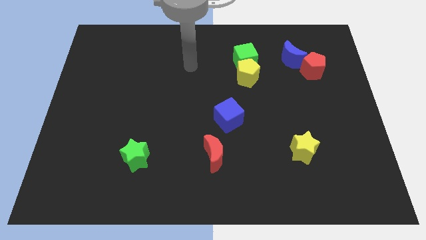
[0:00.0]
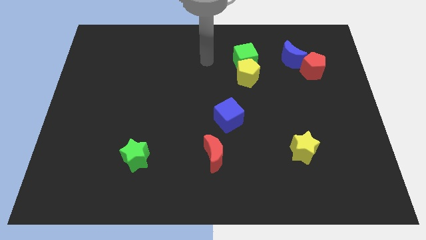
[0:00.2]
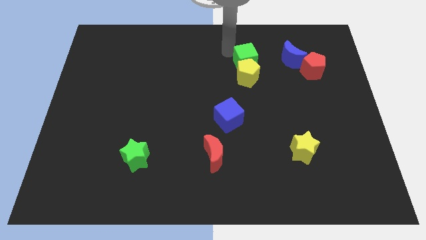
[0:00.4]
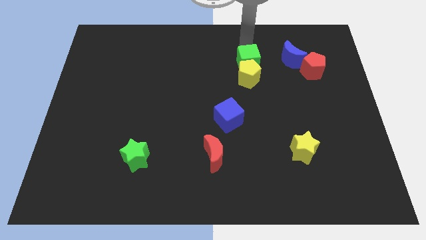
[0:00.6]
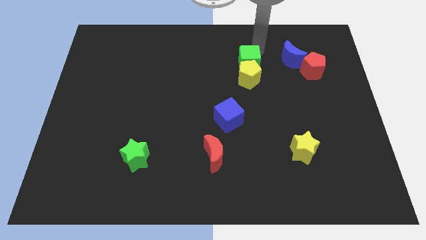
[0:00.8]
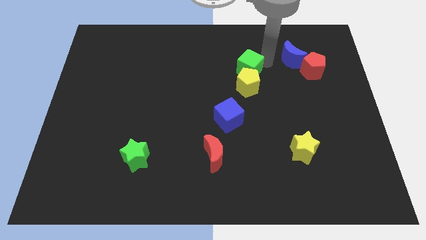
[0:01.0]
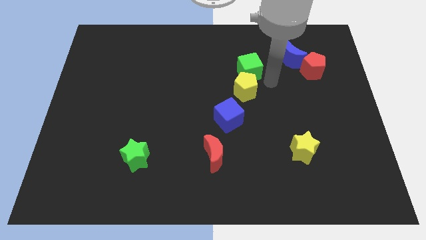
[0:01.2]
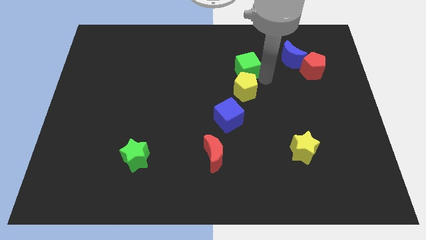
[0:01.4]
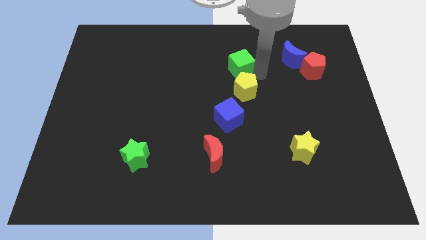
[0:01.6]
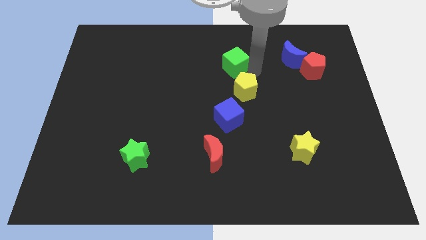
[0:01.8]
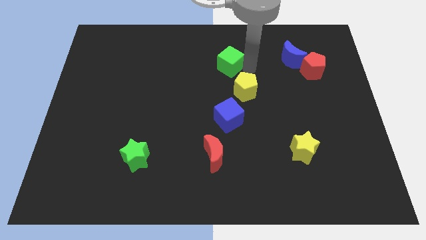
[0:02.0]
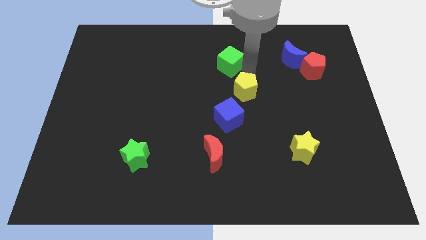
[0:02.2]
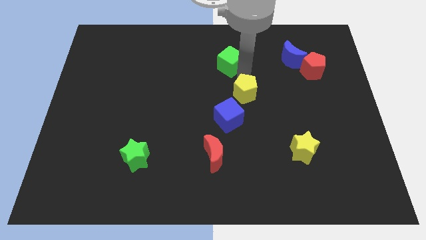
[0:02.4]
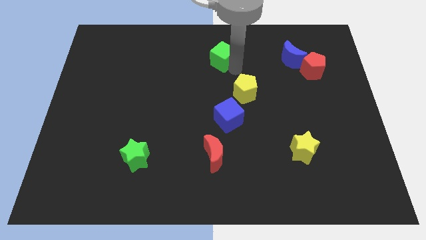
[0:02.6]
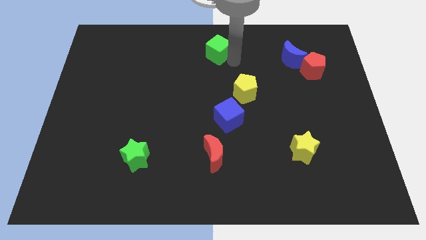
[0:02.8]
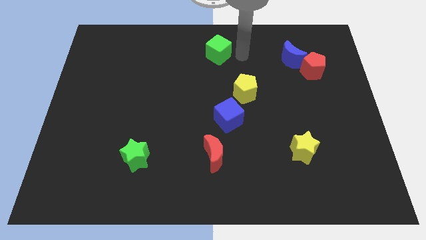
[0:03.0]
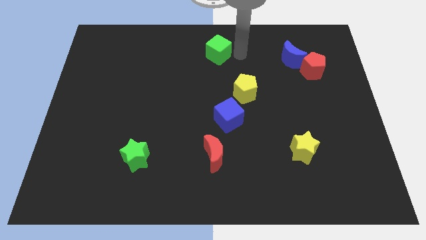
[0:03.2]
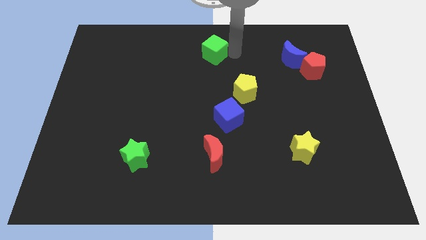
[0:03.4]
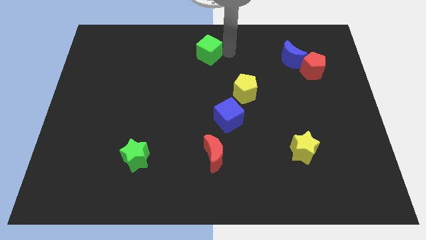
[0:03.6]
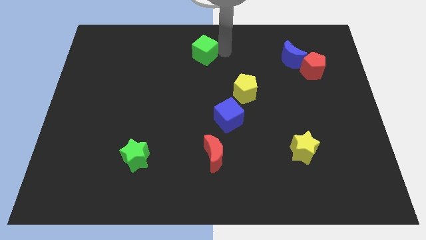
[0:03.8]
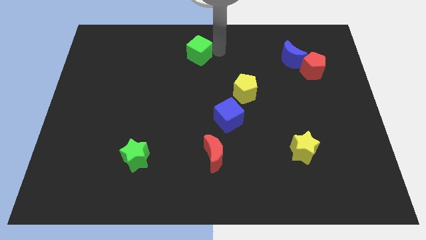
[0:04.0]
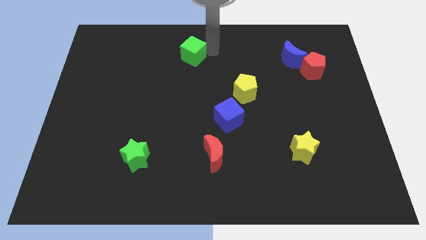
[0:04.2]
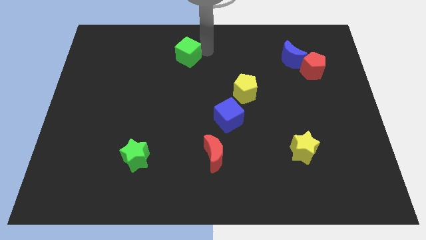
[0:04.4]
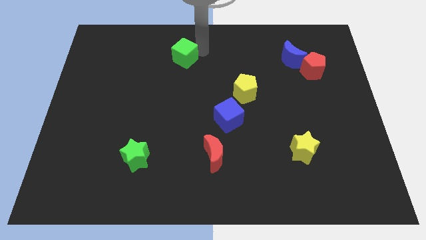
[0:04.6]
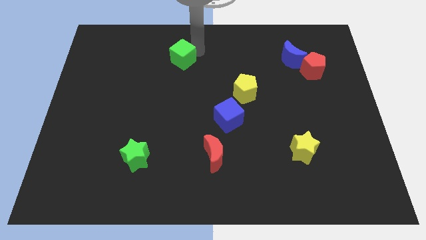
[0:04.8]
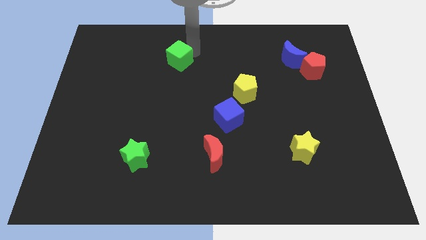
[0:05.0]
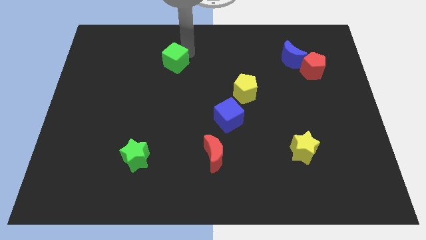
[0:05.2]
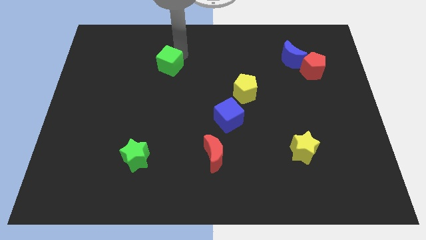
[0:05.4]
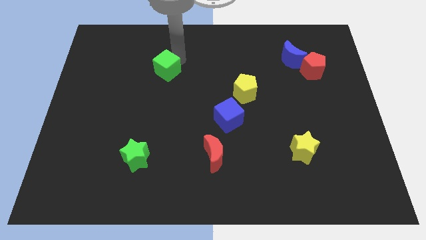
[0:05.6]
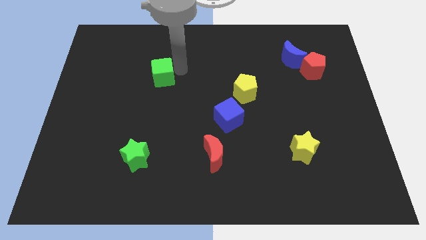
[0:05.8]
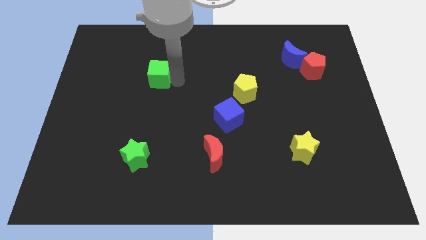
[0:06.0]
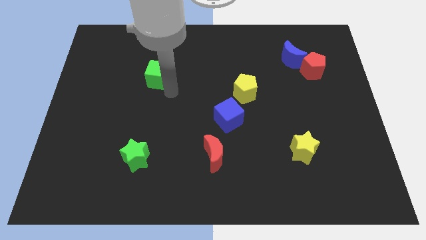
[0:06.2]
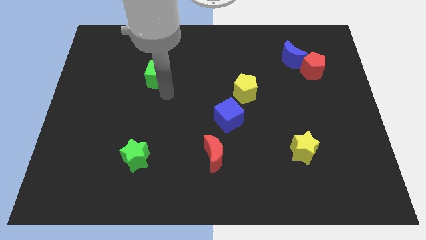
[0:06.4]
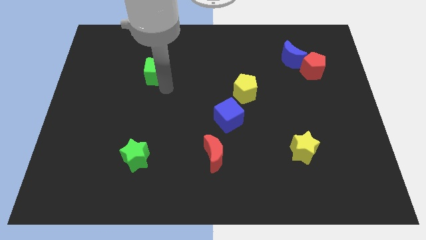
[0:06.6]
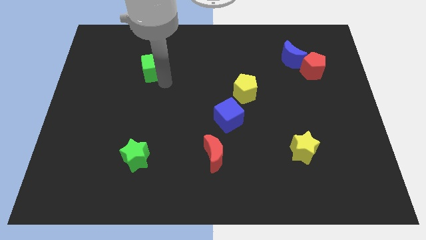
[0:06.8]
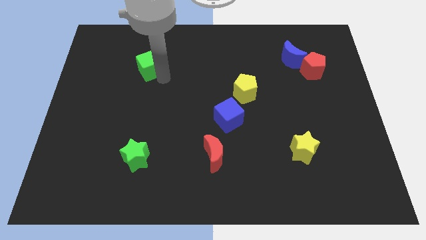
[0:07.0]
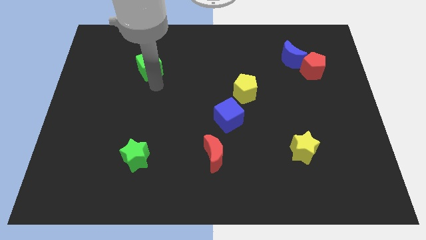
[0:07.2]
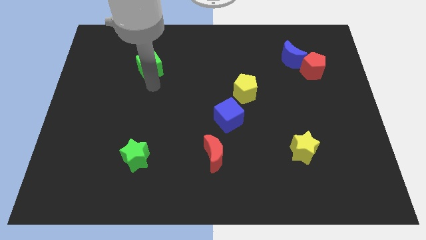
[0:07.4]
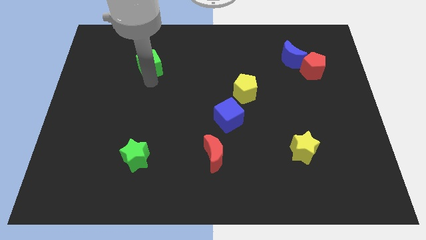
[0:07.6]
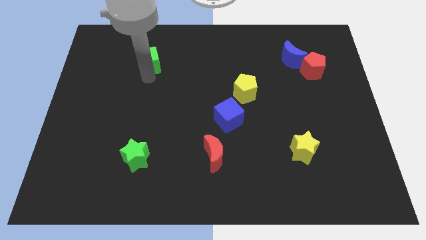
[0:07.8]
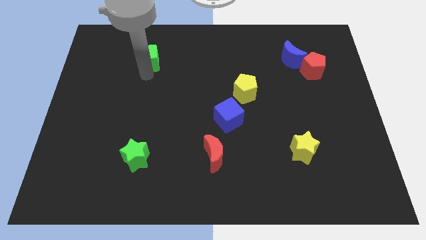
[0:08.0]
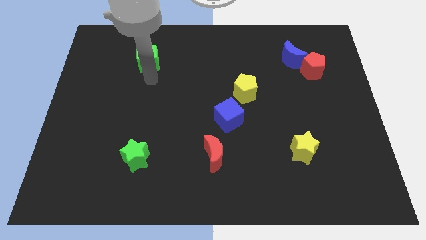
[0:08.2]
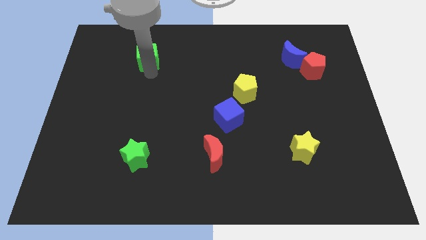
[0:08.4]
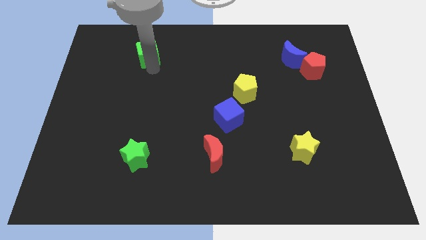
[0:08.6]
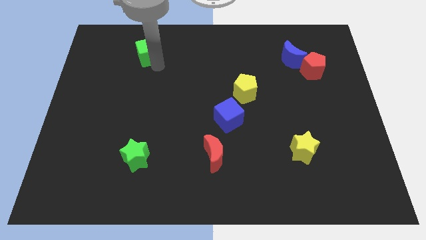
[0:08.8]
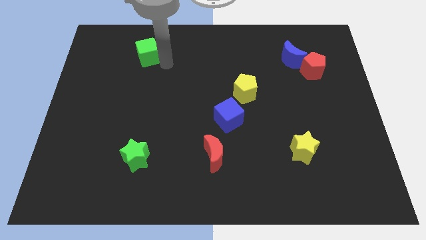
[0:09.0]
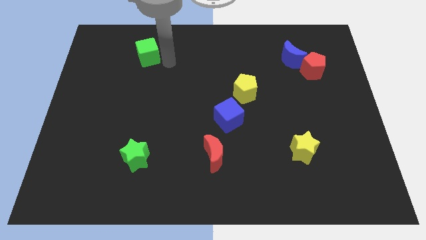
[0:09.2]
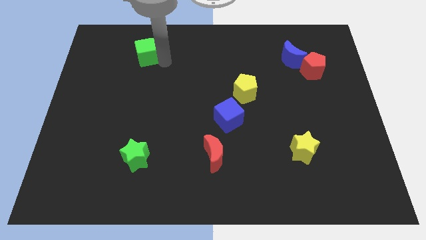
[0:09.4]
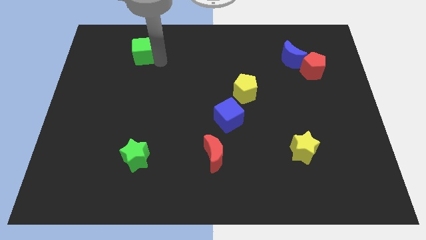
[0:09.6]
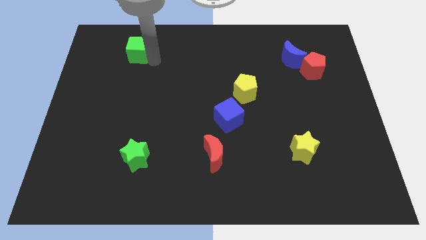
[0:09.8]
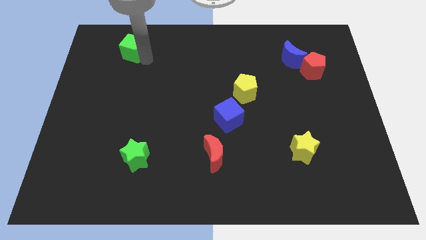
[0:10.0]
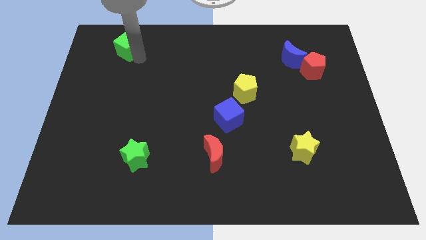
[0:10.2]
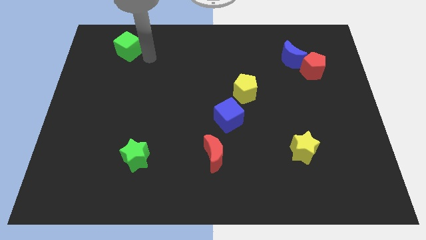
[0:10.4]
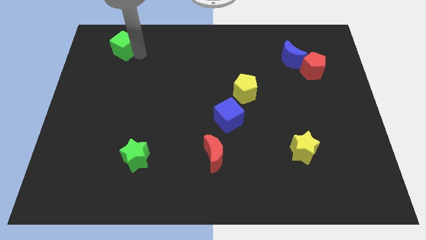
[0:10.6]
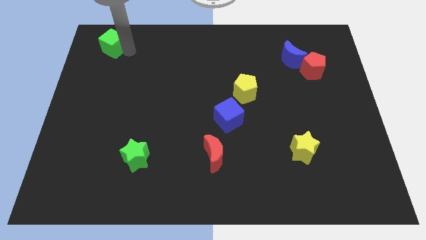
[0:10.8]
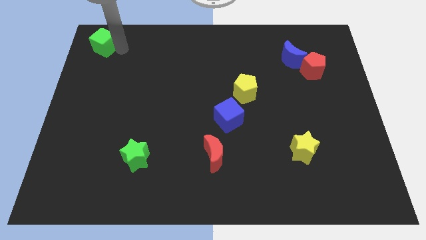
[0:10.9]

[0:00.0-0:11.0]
slide the green cube to the upper left corner

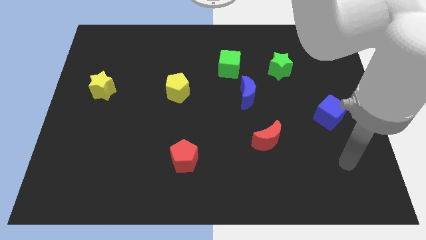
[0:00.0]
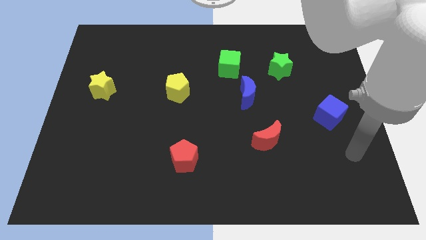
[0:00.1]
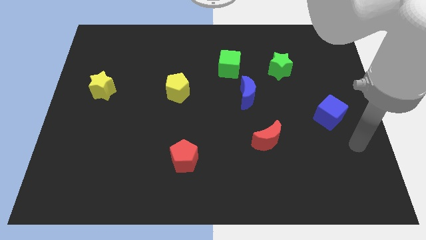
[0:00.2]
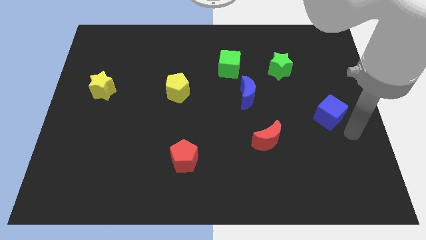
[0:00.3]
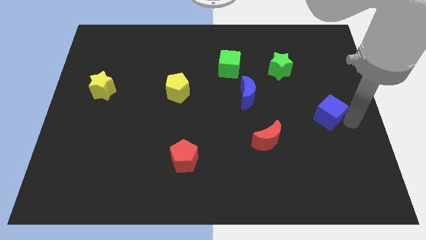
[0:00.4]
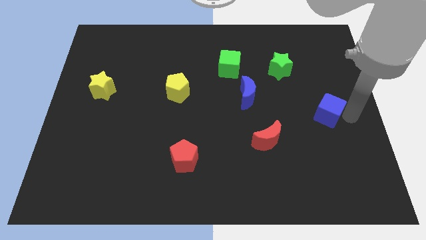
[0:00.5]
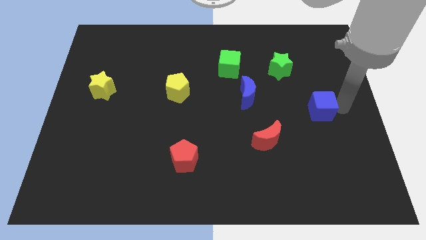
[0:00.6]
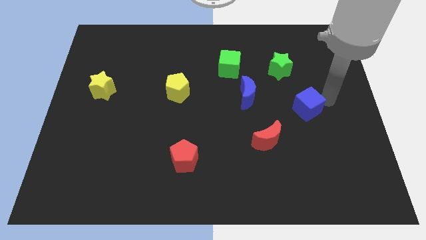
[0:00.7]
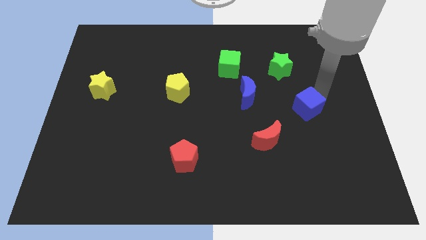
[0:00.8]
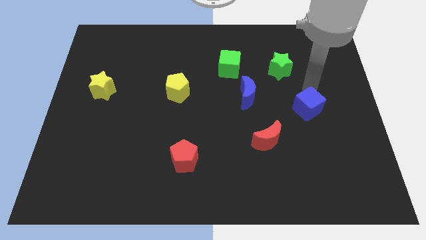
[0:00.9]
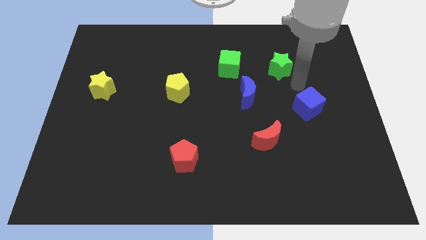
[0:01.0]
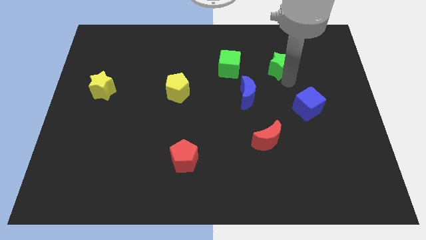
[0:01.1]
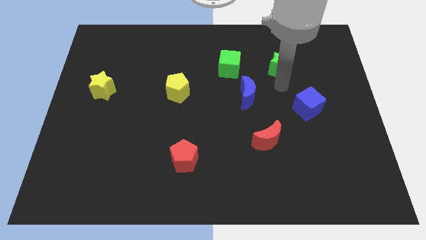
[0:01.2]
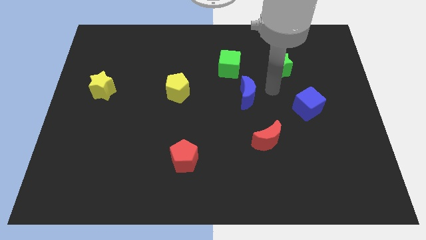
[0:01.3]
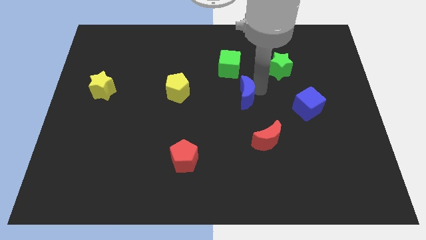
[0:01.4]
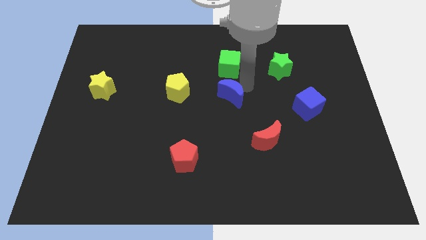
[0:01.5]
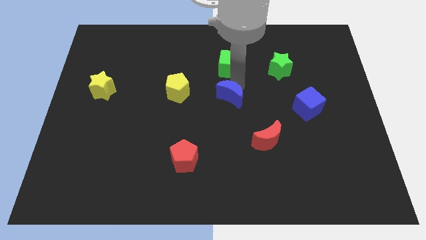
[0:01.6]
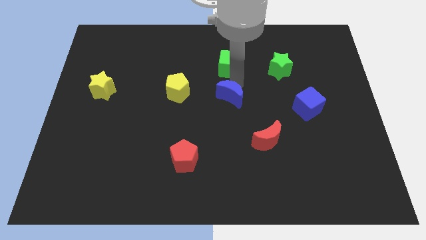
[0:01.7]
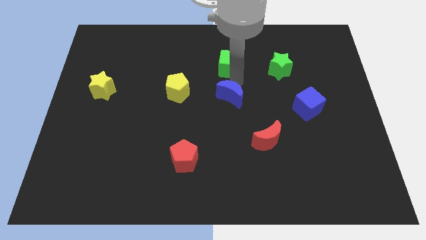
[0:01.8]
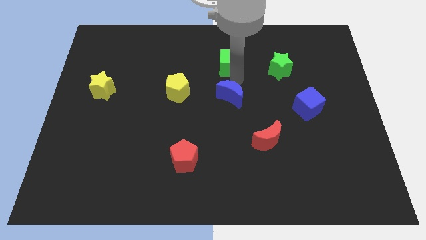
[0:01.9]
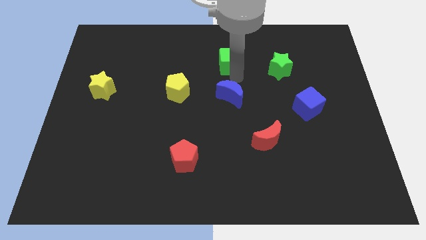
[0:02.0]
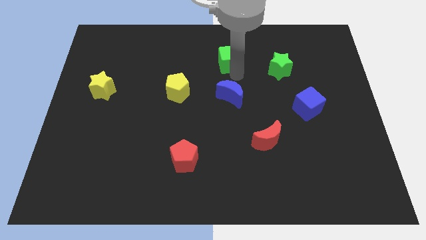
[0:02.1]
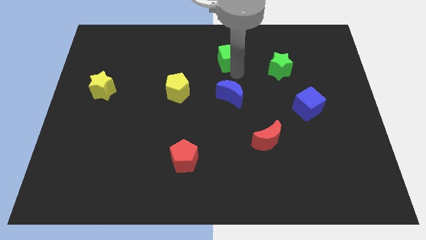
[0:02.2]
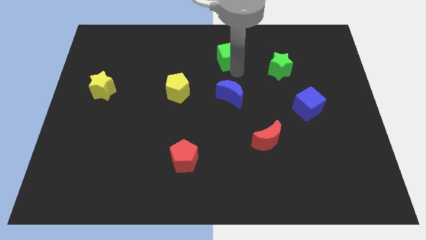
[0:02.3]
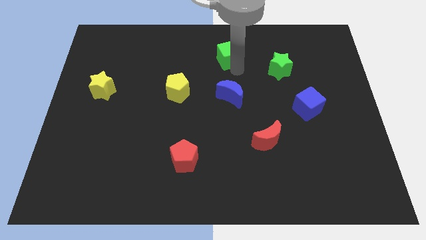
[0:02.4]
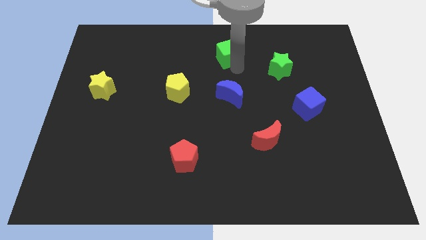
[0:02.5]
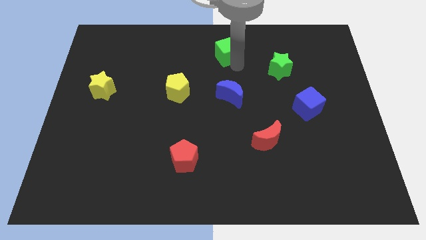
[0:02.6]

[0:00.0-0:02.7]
move the green cube to the towards your base
